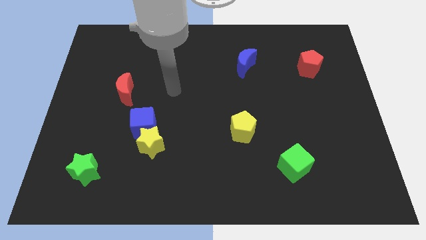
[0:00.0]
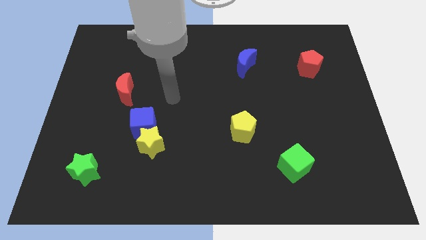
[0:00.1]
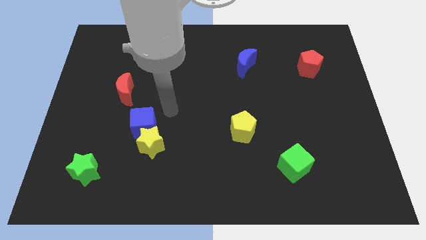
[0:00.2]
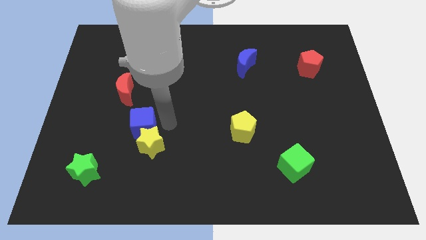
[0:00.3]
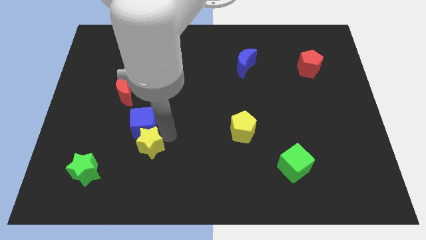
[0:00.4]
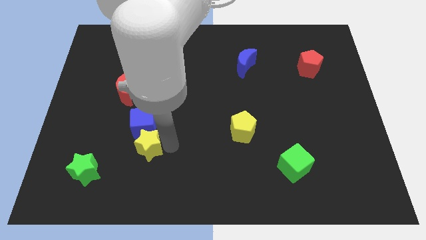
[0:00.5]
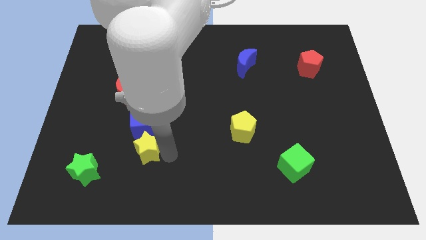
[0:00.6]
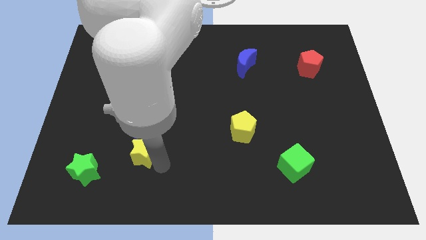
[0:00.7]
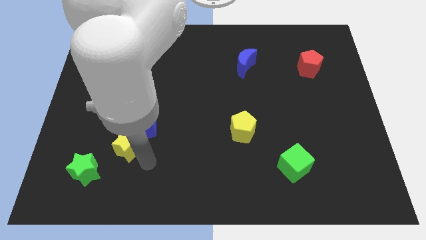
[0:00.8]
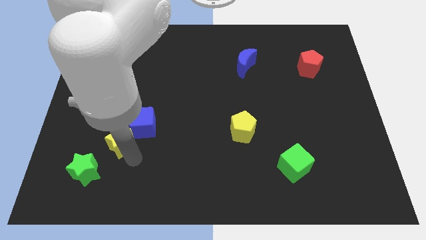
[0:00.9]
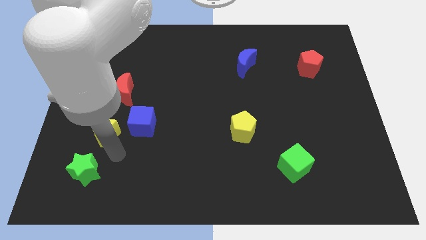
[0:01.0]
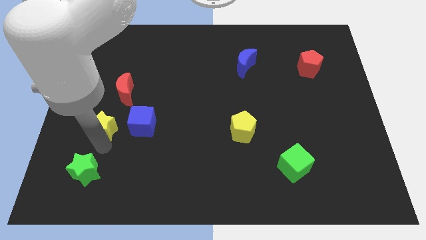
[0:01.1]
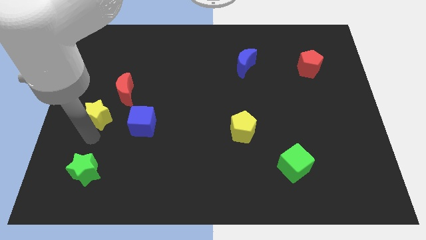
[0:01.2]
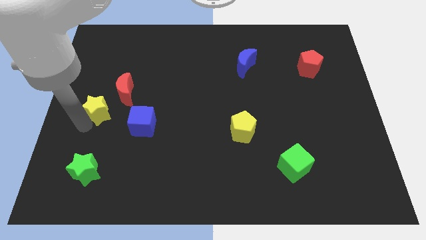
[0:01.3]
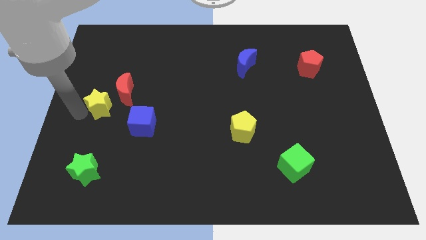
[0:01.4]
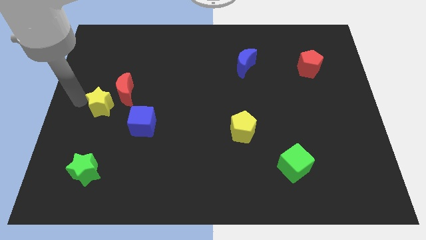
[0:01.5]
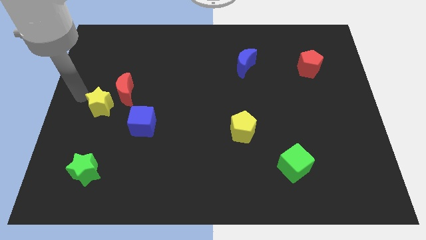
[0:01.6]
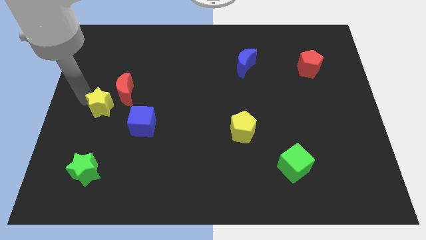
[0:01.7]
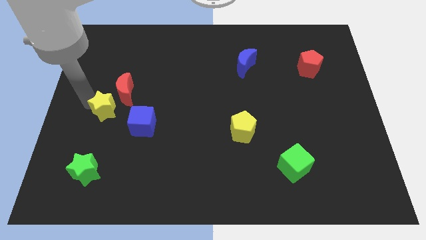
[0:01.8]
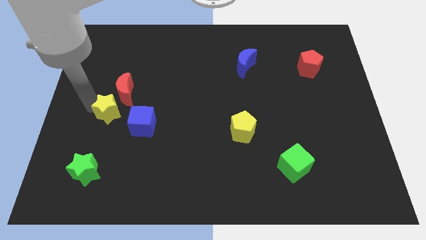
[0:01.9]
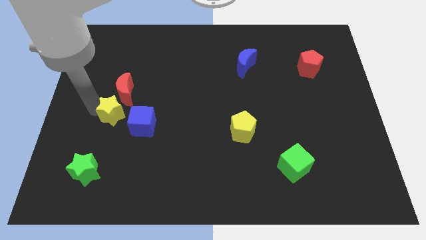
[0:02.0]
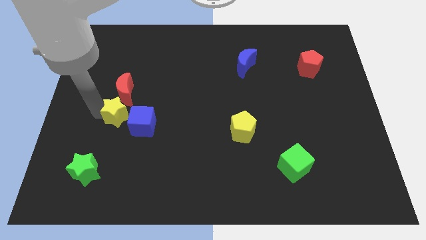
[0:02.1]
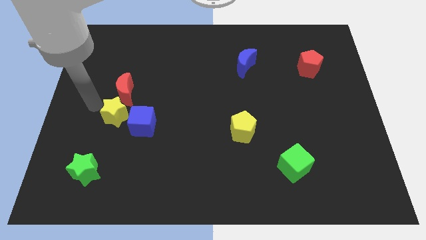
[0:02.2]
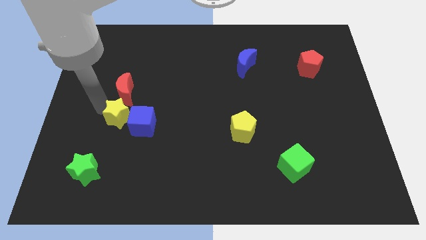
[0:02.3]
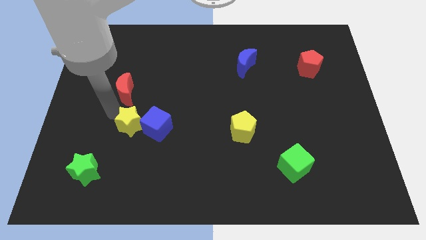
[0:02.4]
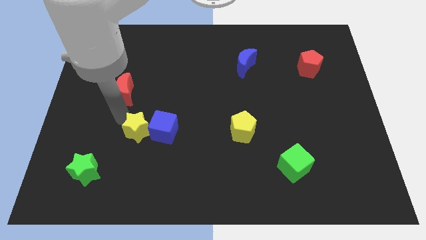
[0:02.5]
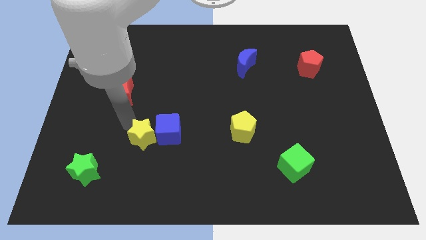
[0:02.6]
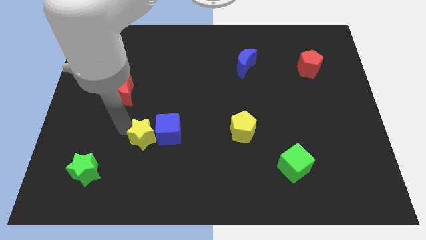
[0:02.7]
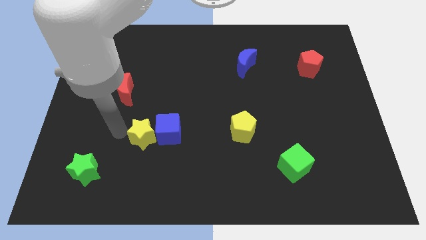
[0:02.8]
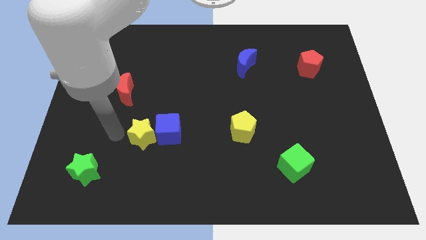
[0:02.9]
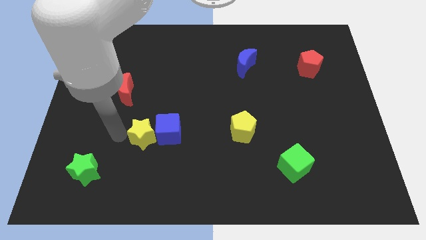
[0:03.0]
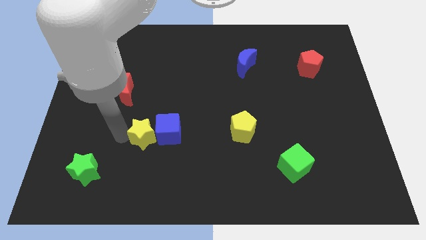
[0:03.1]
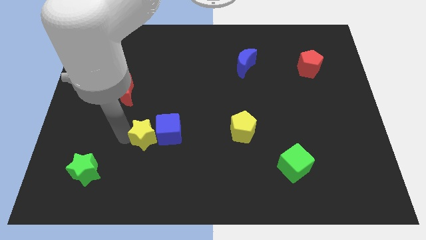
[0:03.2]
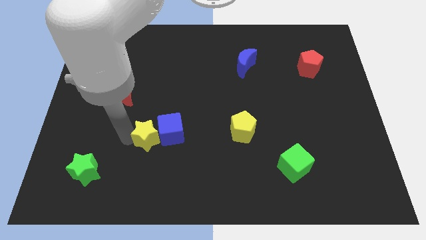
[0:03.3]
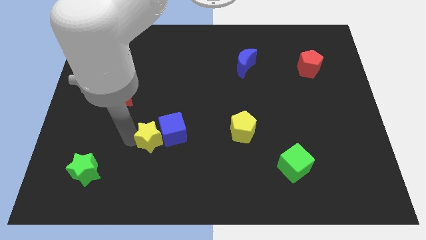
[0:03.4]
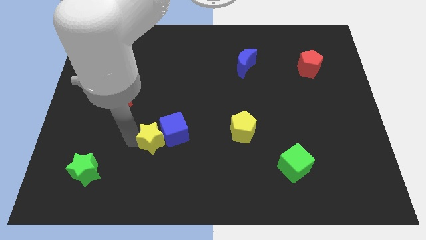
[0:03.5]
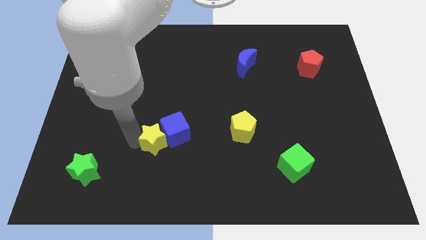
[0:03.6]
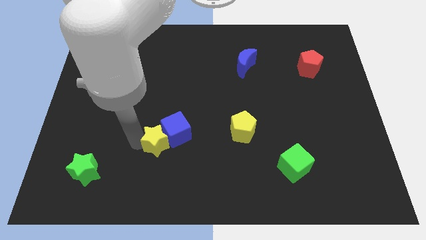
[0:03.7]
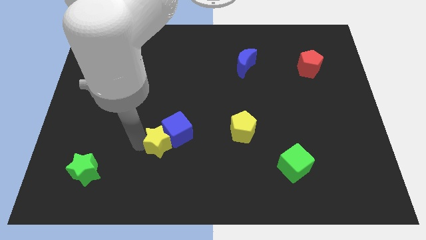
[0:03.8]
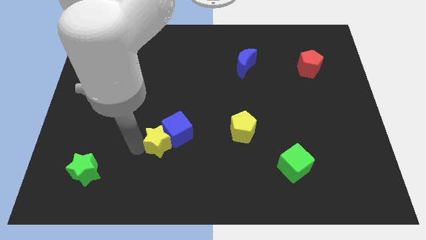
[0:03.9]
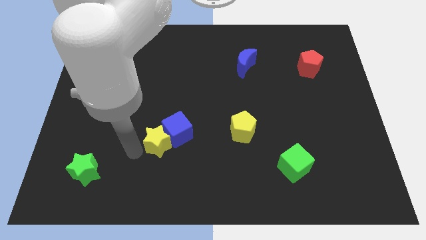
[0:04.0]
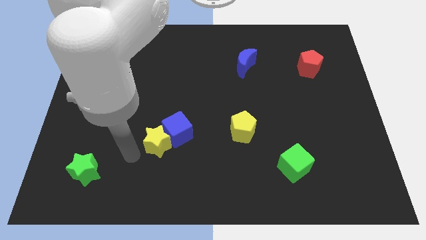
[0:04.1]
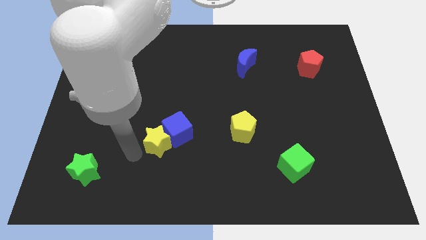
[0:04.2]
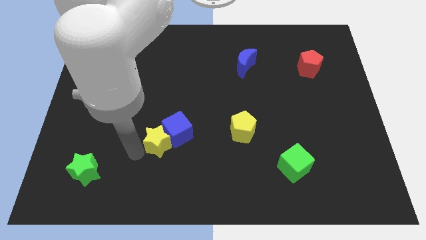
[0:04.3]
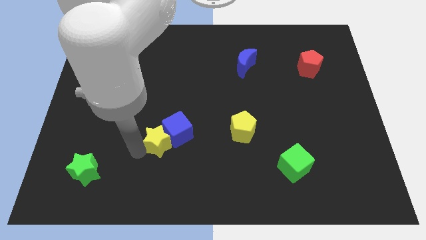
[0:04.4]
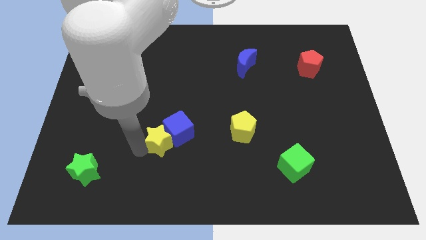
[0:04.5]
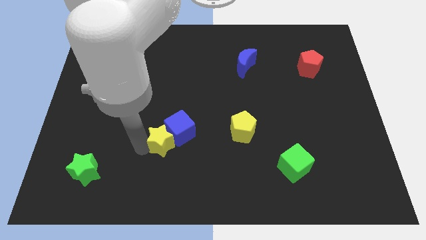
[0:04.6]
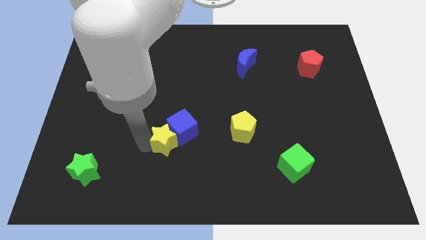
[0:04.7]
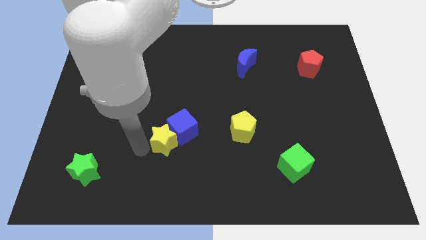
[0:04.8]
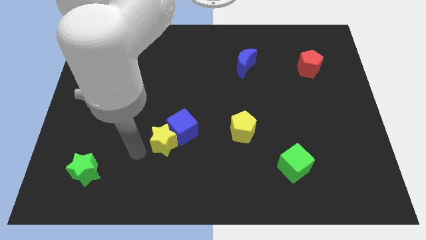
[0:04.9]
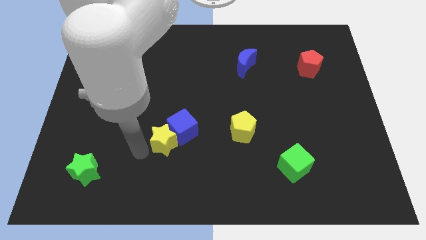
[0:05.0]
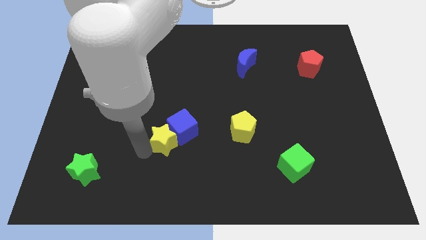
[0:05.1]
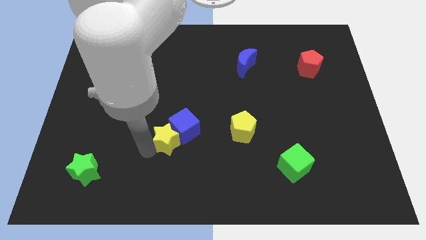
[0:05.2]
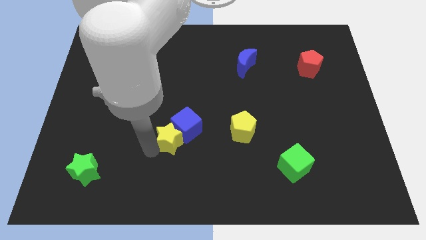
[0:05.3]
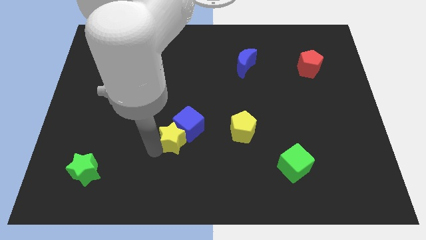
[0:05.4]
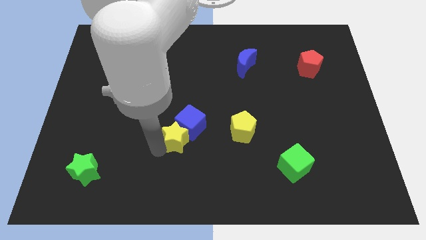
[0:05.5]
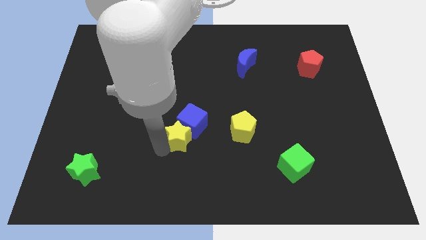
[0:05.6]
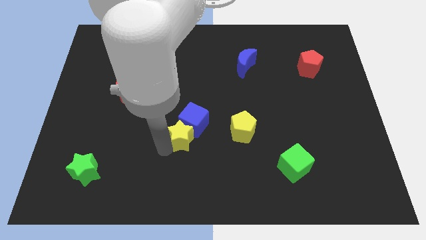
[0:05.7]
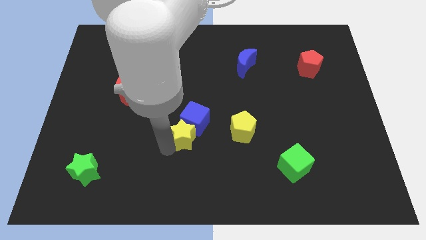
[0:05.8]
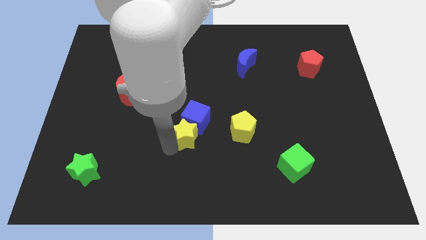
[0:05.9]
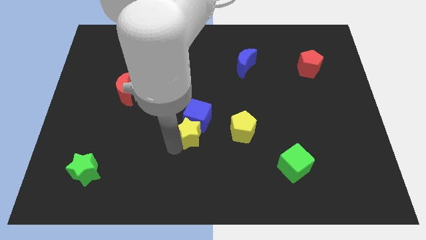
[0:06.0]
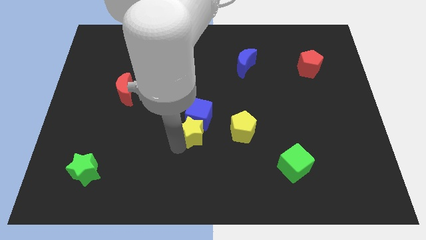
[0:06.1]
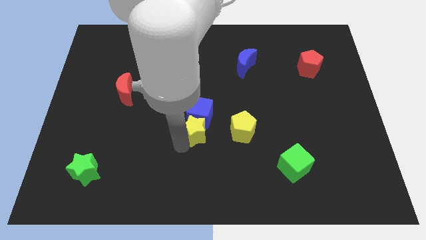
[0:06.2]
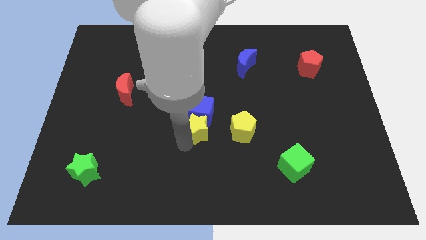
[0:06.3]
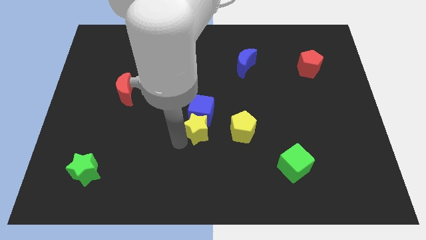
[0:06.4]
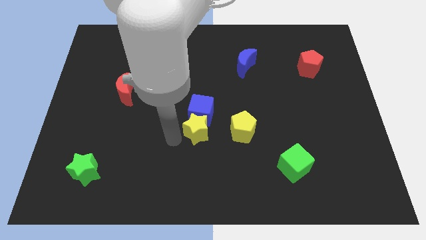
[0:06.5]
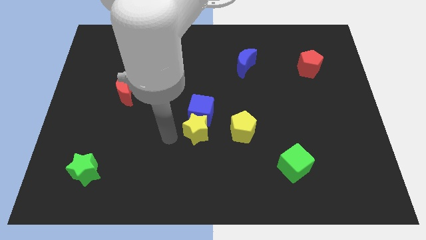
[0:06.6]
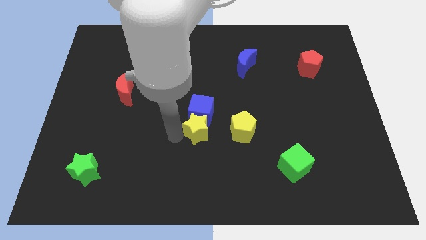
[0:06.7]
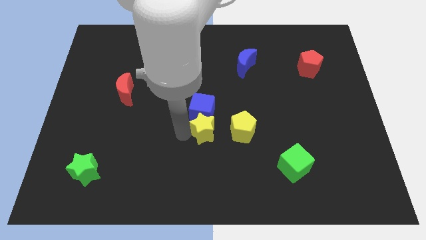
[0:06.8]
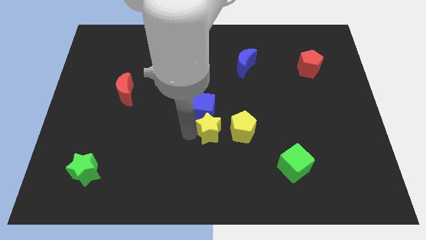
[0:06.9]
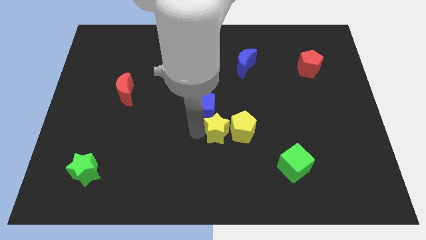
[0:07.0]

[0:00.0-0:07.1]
push the yellow star towards the yellow pentagon

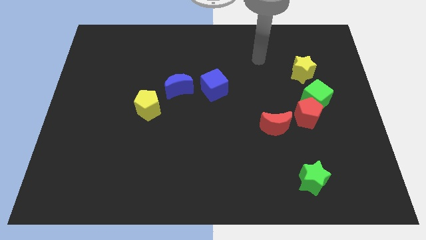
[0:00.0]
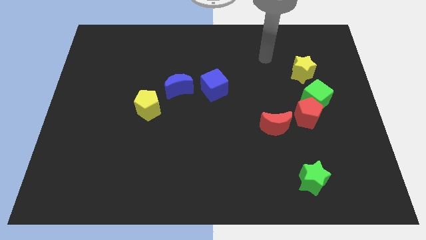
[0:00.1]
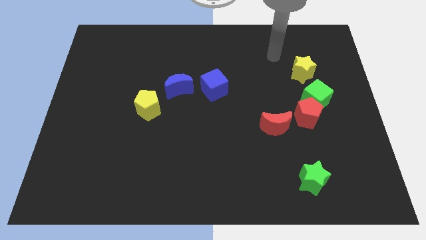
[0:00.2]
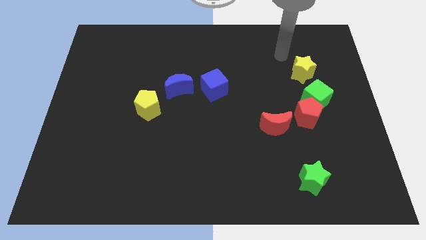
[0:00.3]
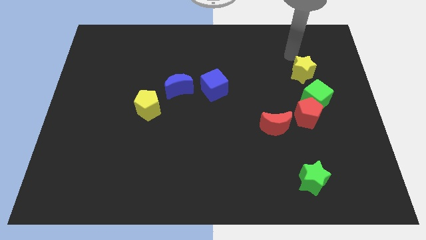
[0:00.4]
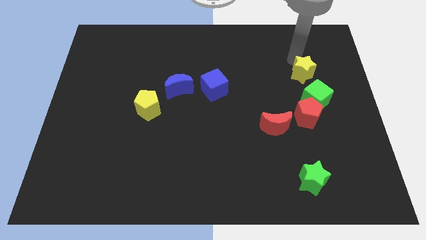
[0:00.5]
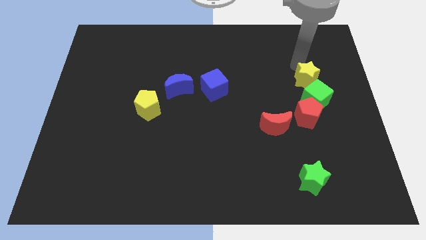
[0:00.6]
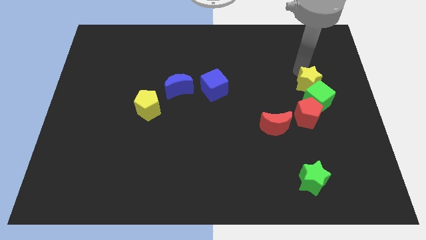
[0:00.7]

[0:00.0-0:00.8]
move the yellow star close to the green cube
